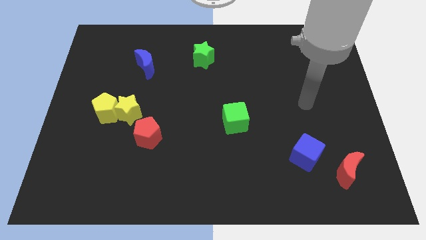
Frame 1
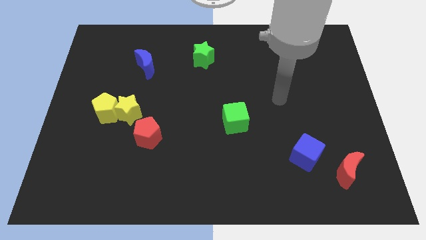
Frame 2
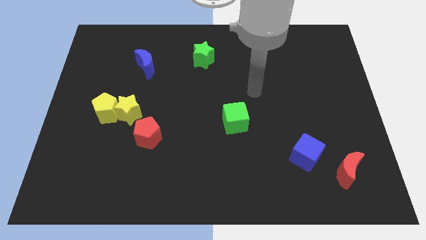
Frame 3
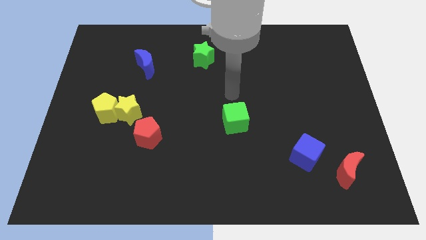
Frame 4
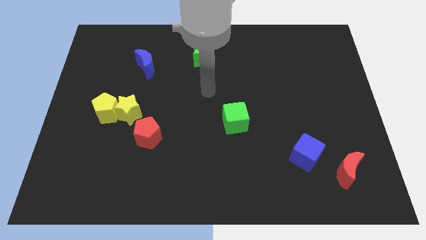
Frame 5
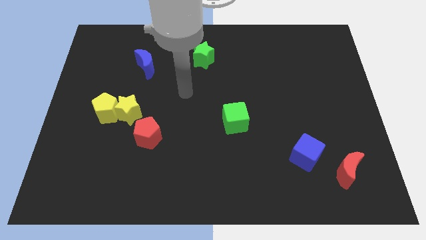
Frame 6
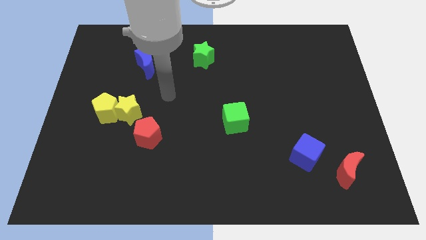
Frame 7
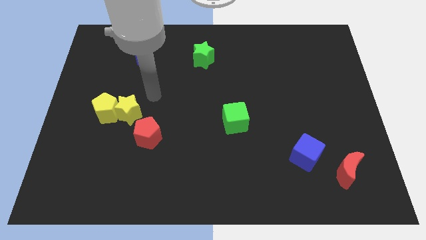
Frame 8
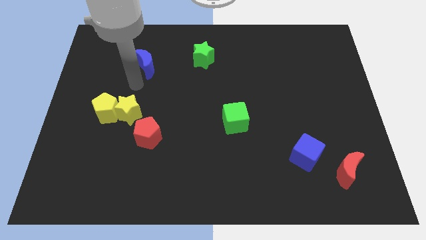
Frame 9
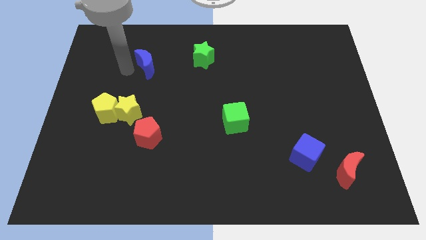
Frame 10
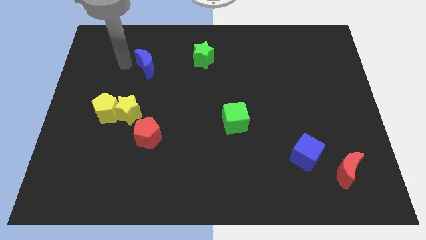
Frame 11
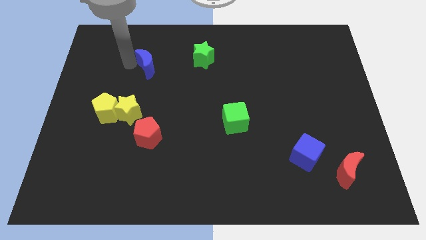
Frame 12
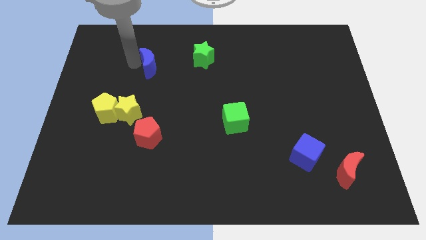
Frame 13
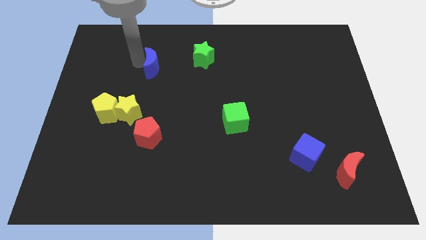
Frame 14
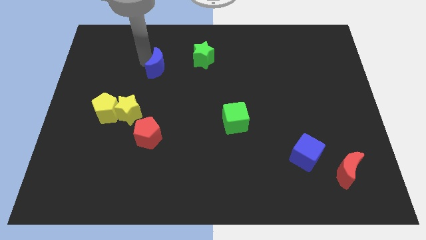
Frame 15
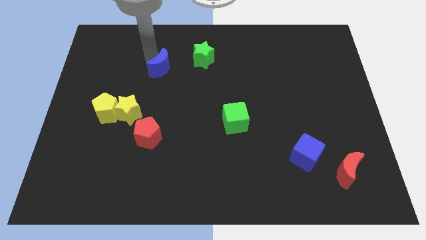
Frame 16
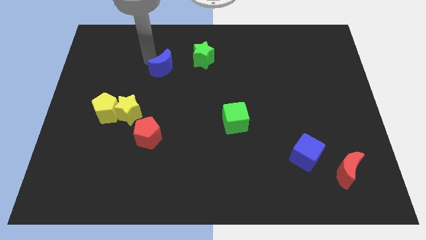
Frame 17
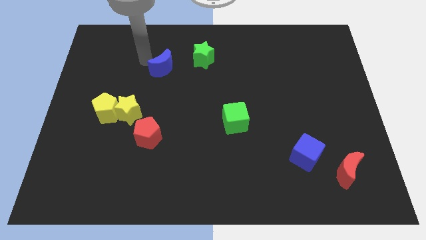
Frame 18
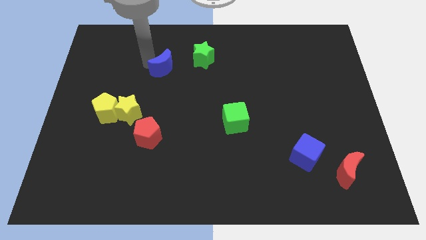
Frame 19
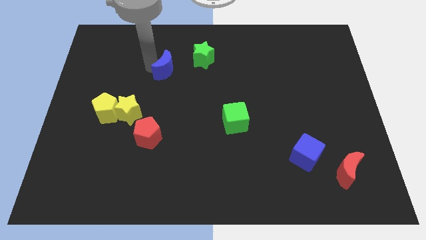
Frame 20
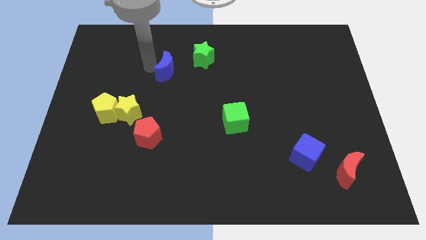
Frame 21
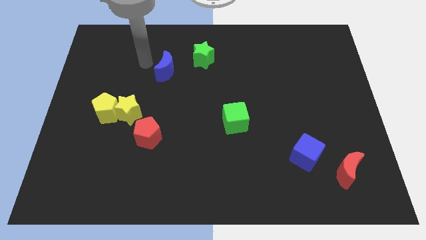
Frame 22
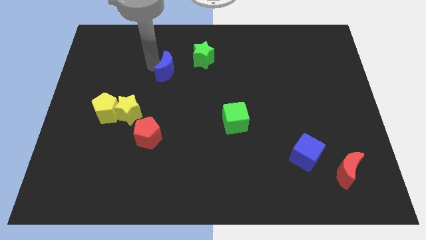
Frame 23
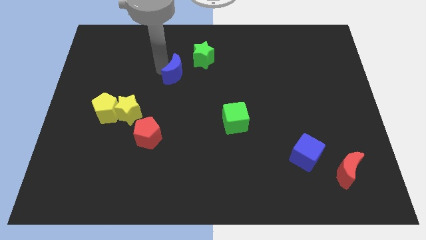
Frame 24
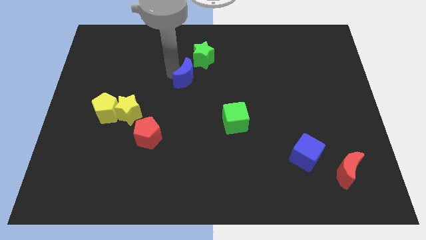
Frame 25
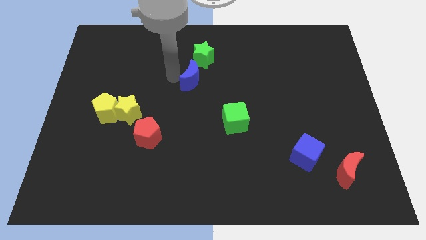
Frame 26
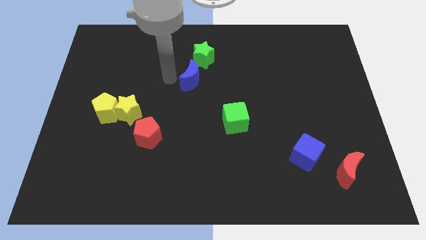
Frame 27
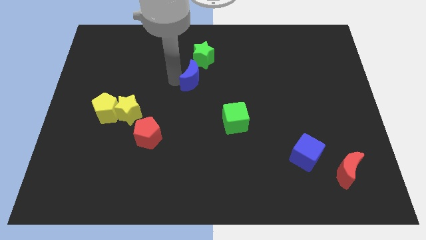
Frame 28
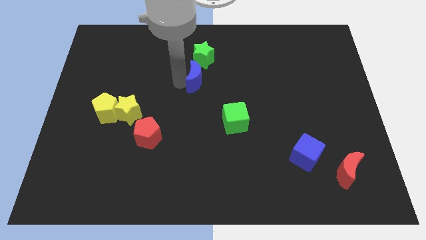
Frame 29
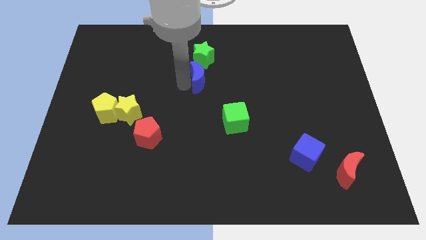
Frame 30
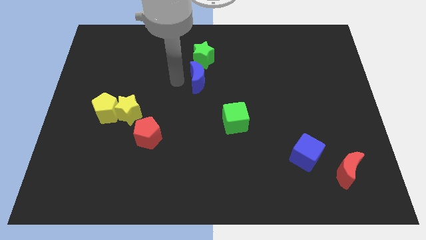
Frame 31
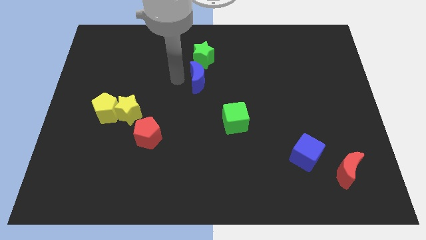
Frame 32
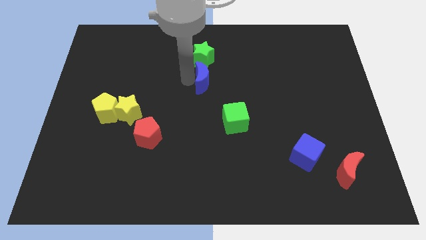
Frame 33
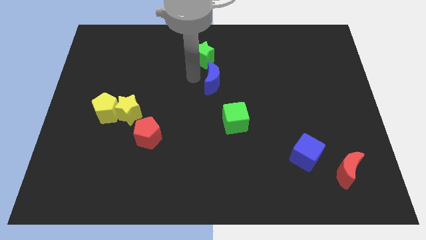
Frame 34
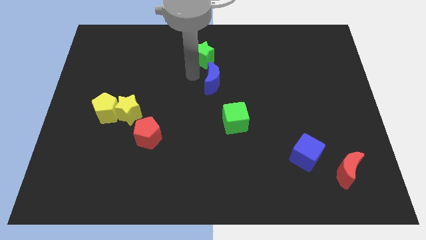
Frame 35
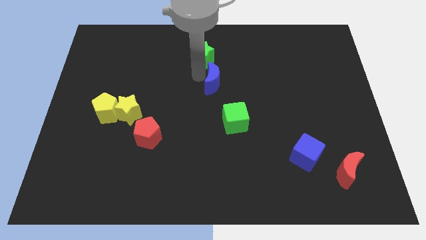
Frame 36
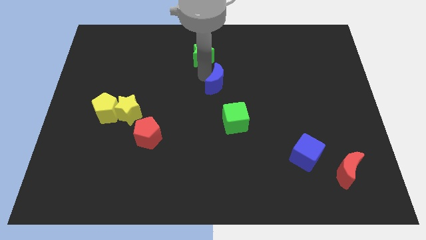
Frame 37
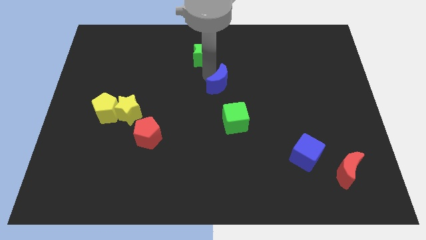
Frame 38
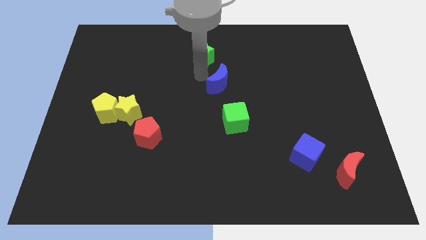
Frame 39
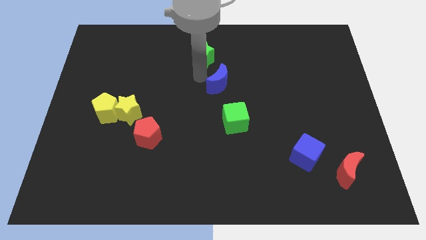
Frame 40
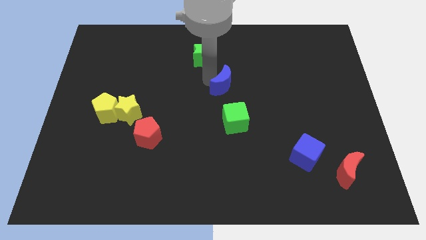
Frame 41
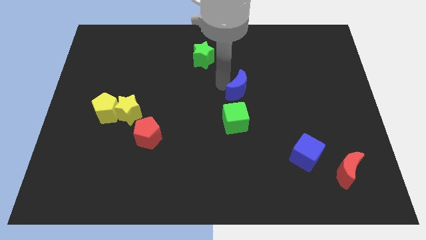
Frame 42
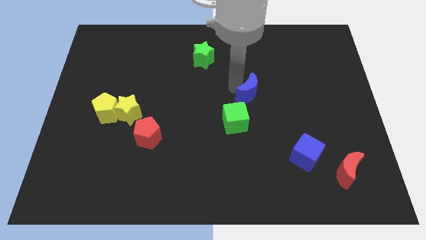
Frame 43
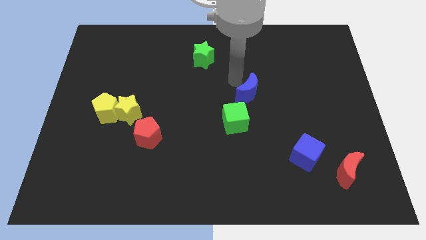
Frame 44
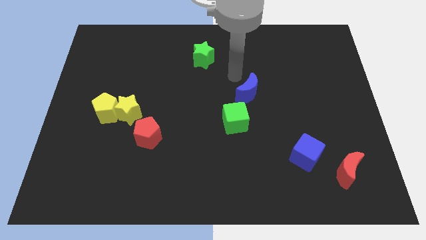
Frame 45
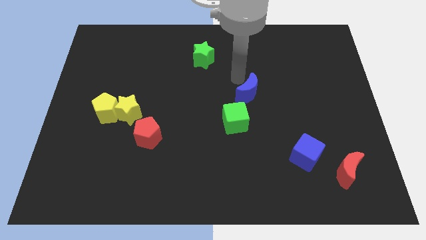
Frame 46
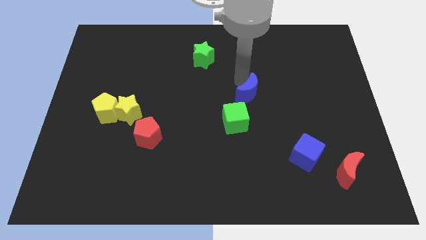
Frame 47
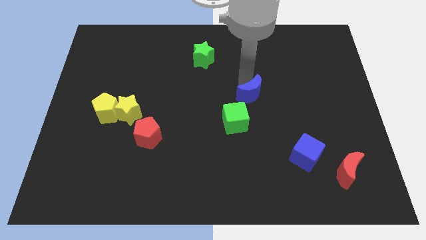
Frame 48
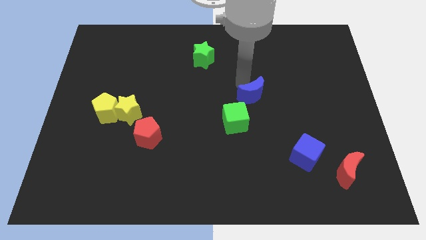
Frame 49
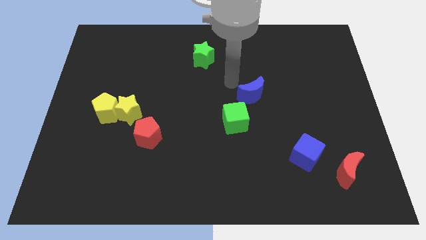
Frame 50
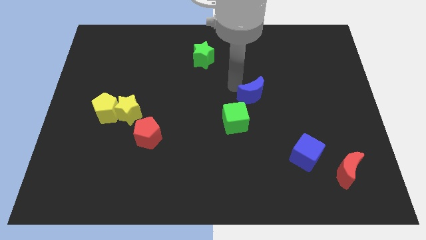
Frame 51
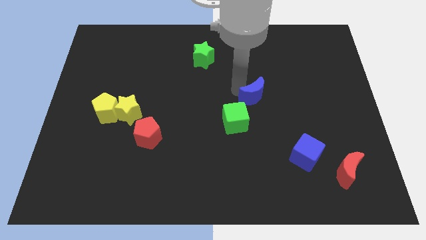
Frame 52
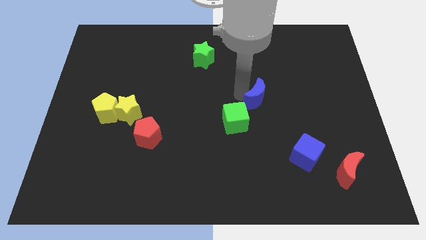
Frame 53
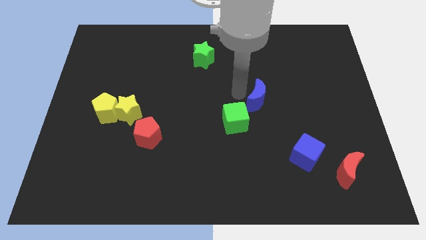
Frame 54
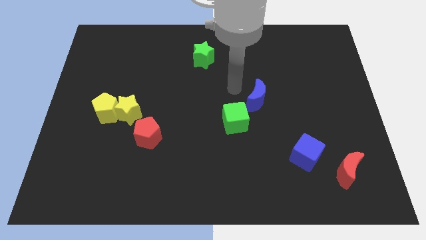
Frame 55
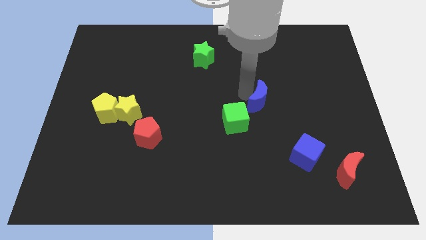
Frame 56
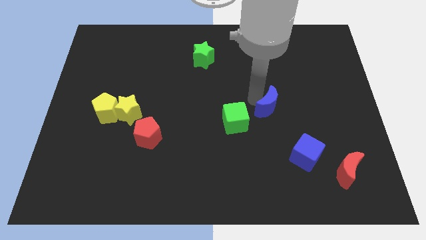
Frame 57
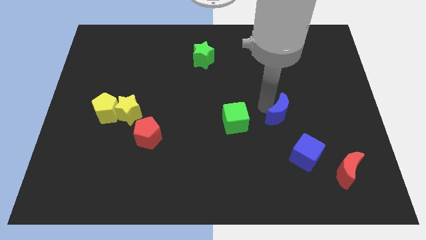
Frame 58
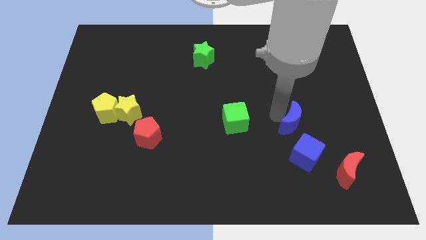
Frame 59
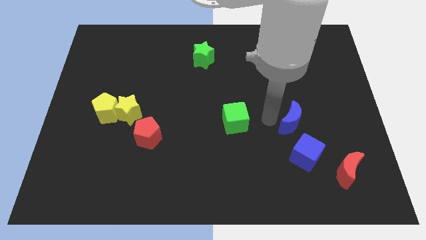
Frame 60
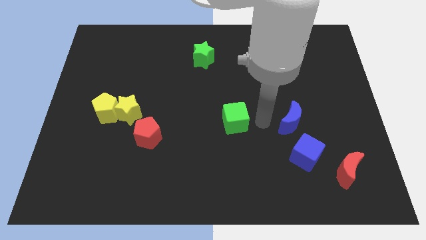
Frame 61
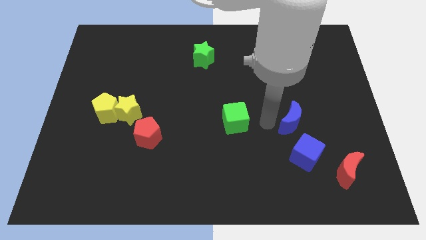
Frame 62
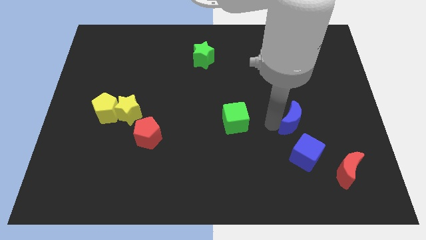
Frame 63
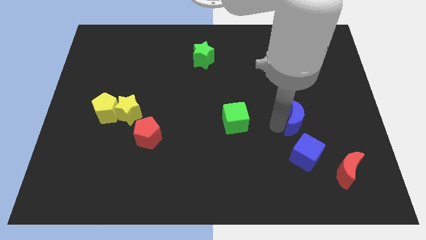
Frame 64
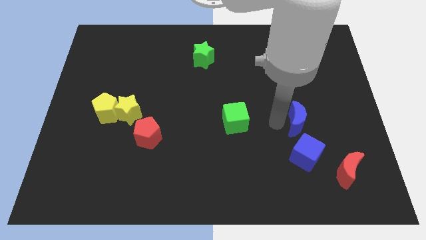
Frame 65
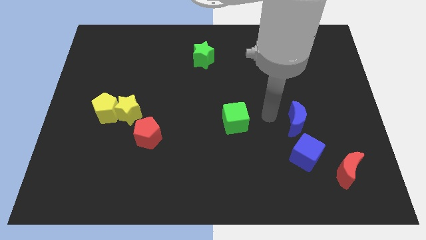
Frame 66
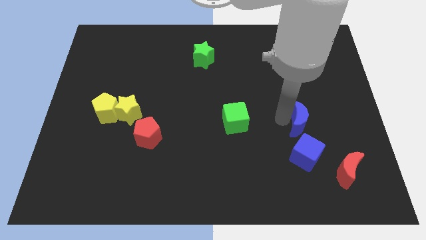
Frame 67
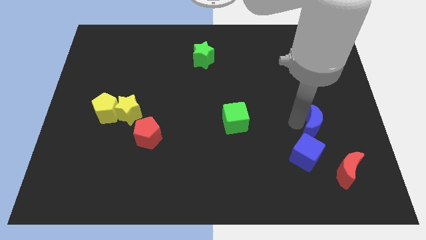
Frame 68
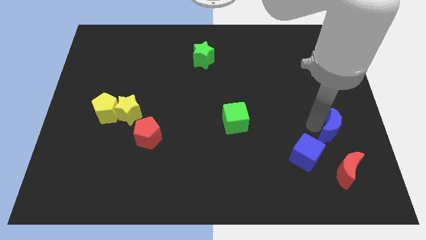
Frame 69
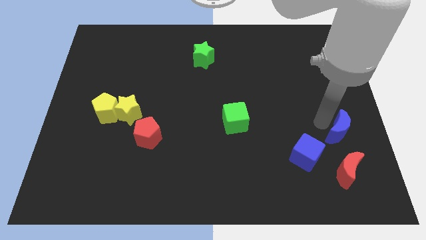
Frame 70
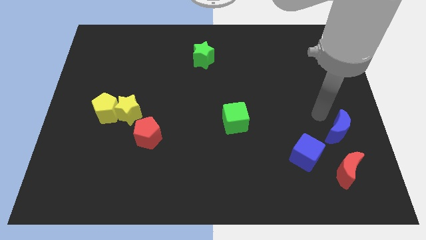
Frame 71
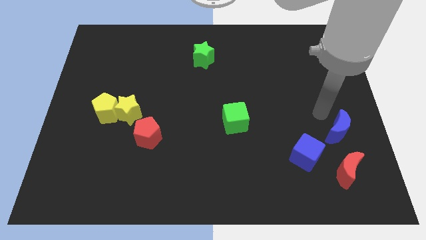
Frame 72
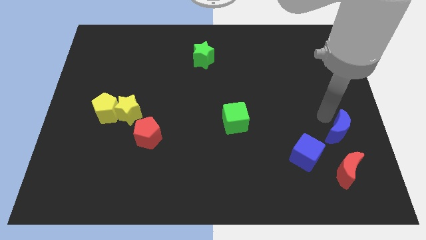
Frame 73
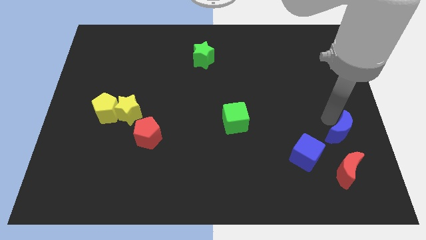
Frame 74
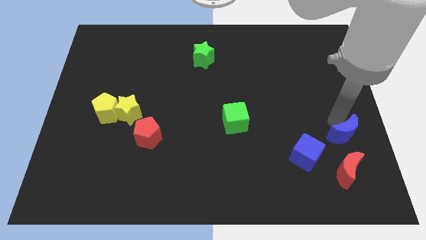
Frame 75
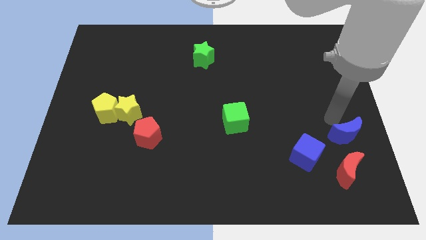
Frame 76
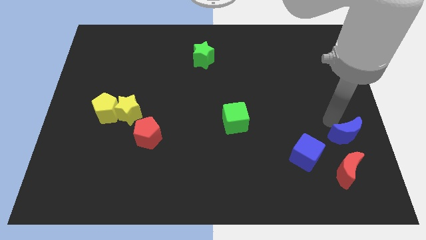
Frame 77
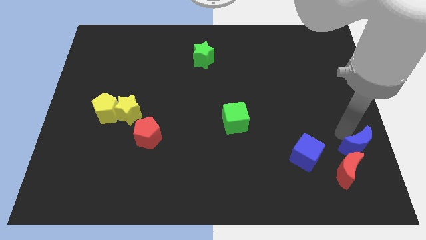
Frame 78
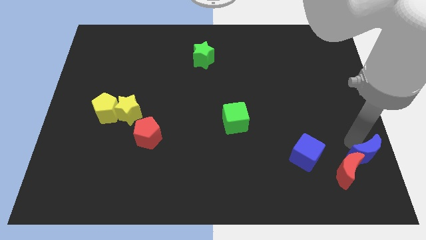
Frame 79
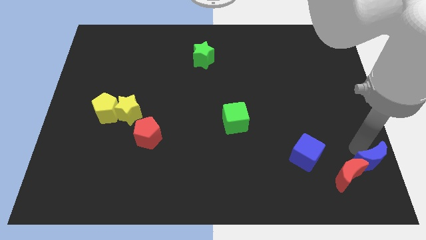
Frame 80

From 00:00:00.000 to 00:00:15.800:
put the blue moon to the lower right corner

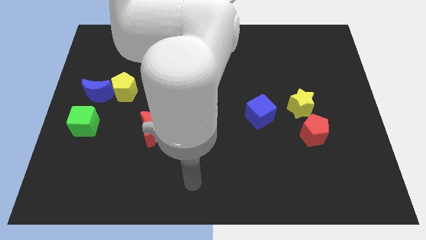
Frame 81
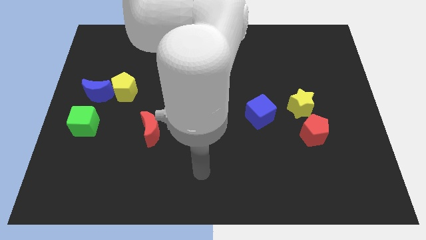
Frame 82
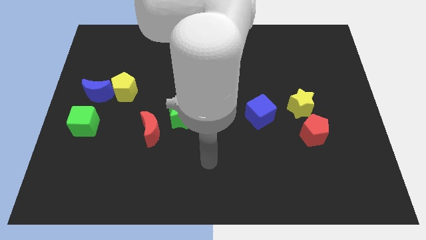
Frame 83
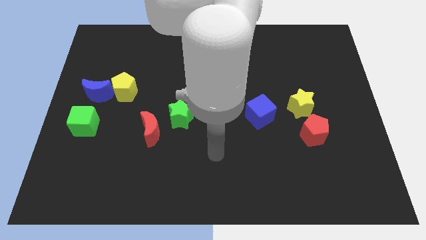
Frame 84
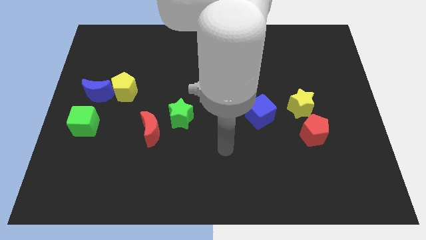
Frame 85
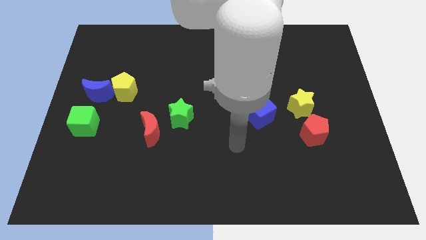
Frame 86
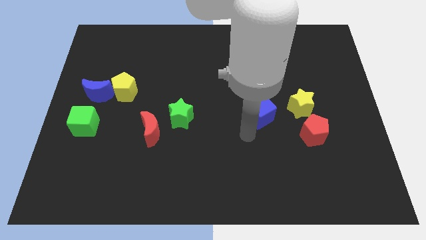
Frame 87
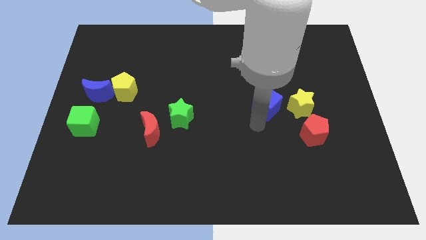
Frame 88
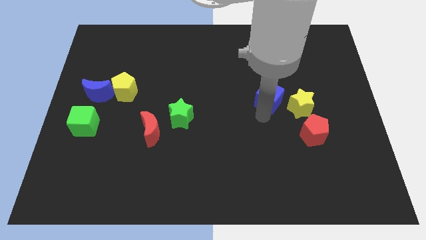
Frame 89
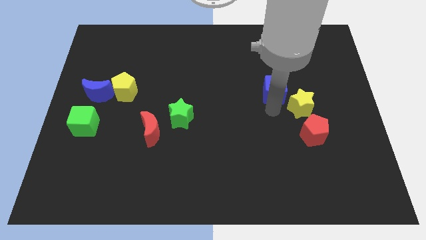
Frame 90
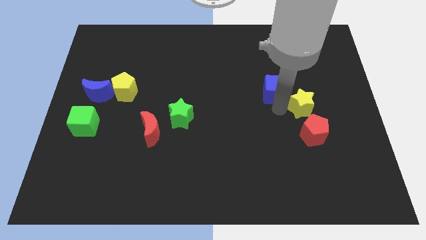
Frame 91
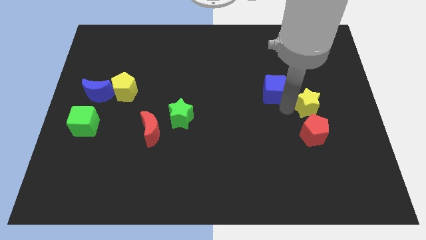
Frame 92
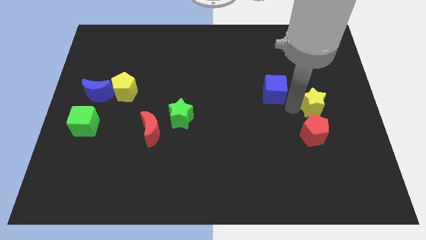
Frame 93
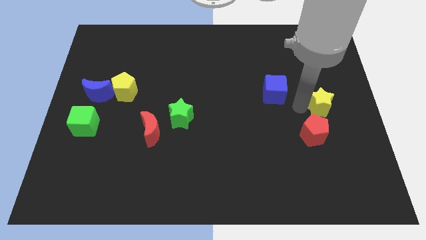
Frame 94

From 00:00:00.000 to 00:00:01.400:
slide the yellow star to the center right
